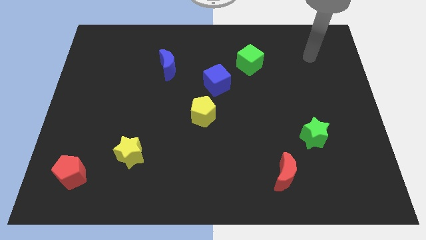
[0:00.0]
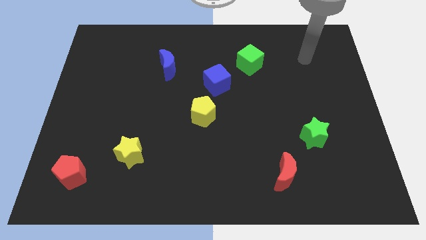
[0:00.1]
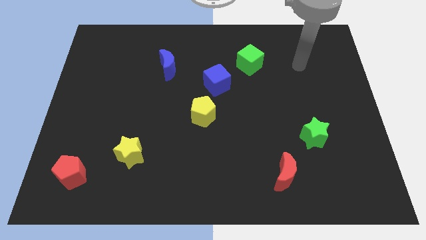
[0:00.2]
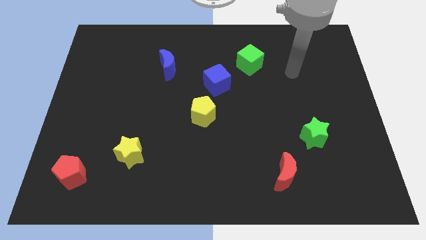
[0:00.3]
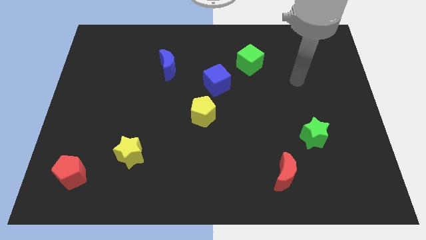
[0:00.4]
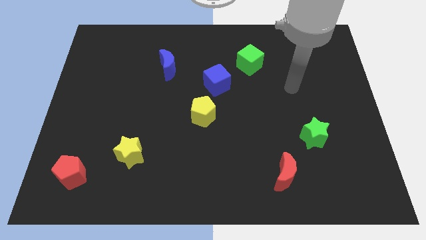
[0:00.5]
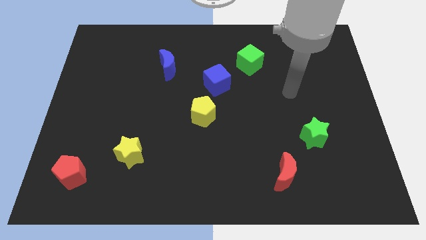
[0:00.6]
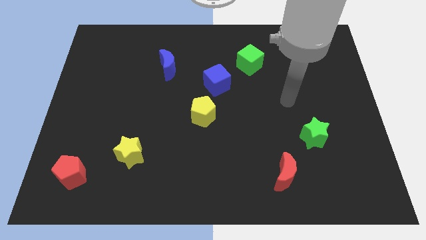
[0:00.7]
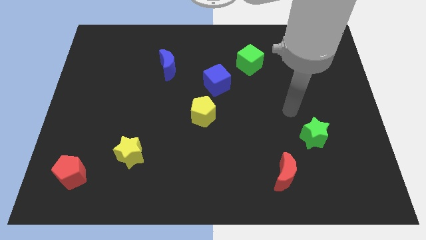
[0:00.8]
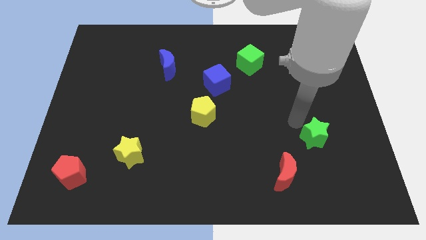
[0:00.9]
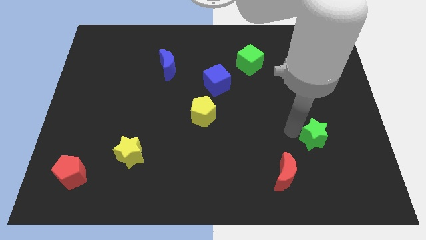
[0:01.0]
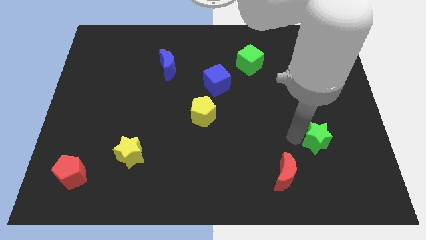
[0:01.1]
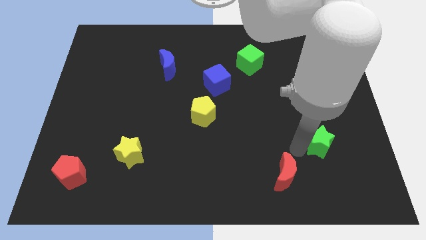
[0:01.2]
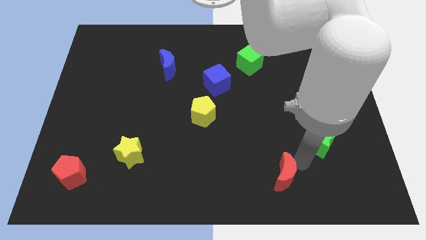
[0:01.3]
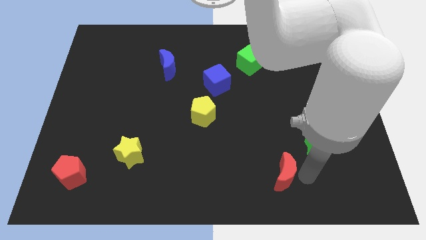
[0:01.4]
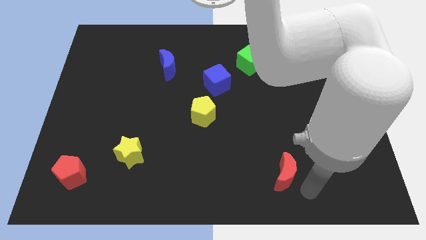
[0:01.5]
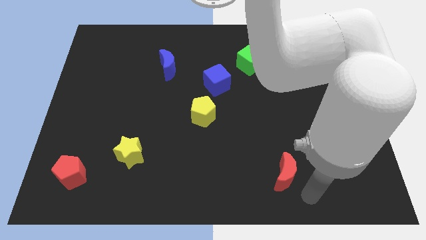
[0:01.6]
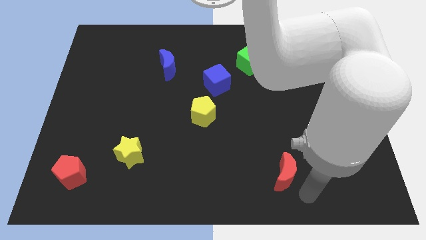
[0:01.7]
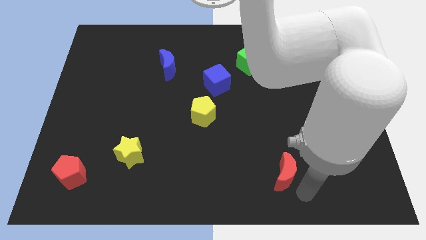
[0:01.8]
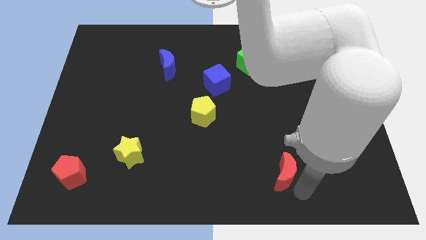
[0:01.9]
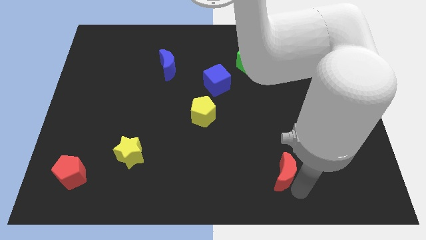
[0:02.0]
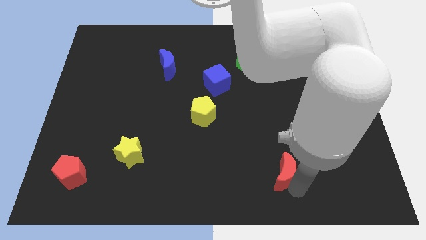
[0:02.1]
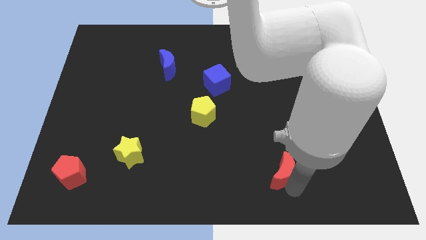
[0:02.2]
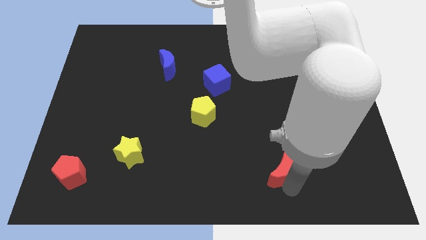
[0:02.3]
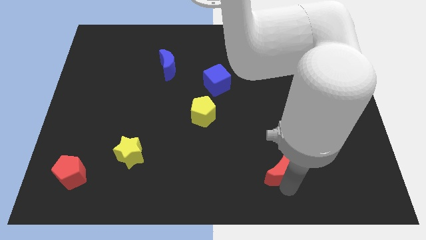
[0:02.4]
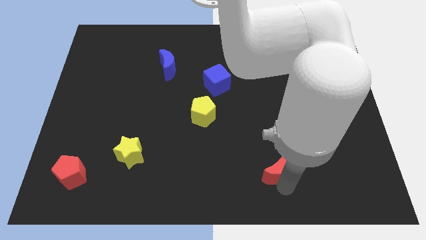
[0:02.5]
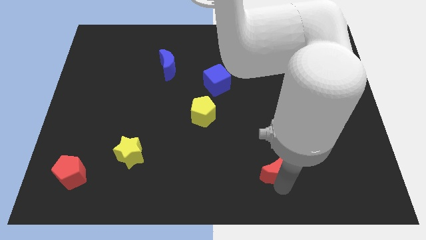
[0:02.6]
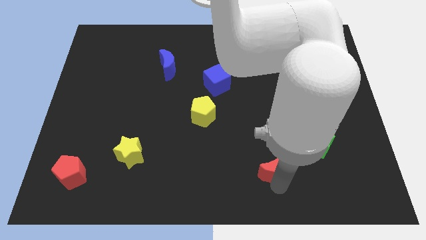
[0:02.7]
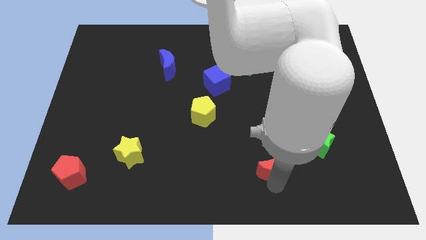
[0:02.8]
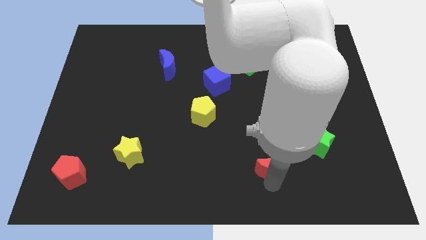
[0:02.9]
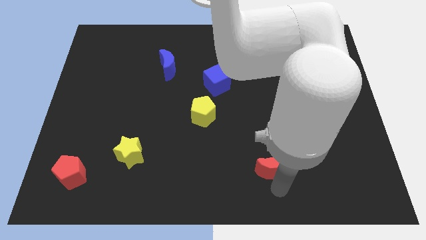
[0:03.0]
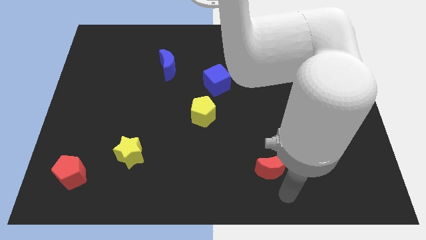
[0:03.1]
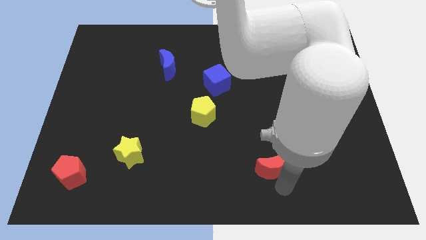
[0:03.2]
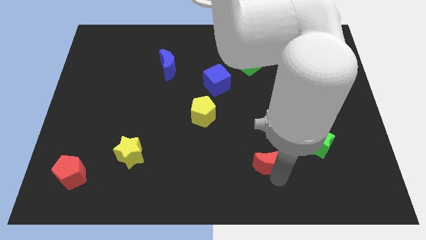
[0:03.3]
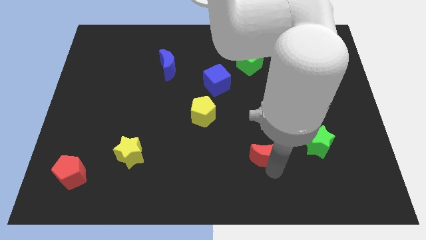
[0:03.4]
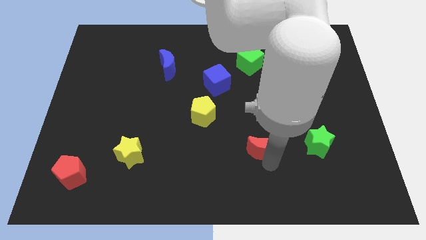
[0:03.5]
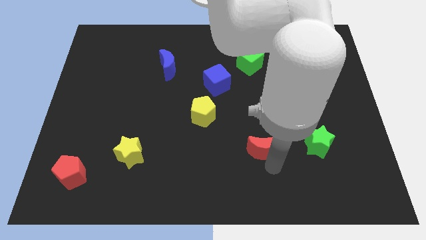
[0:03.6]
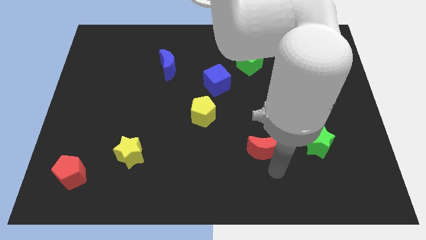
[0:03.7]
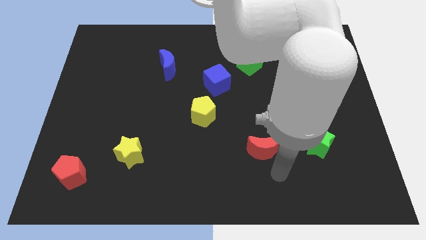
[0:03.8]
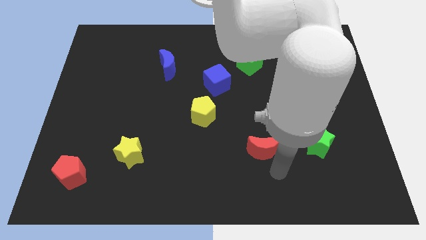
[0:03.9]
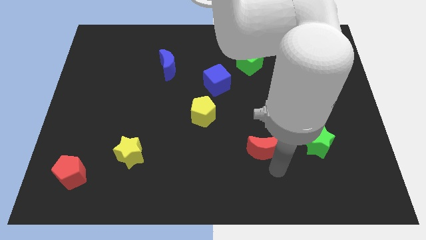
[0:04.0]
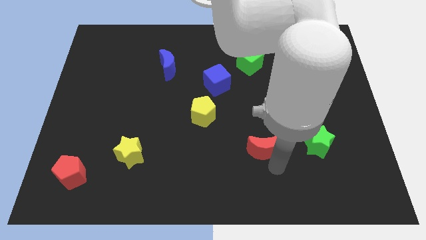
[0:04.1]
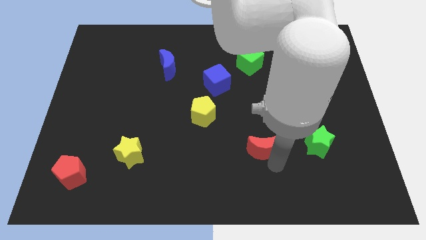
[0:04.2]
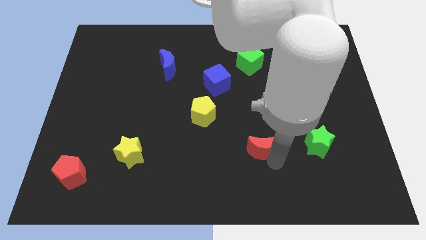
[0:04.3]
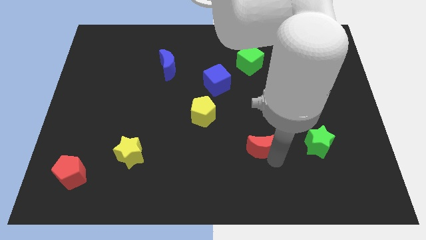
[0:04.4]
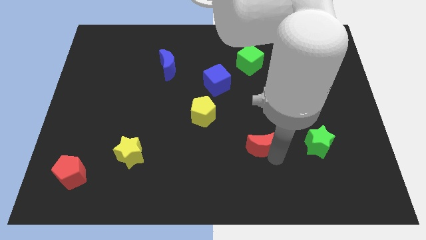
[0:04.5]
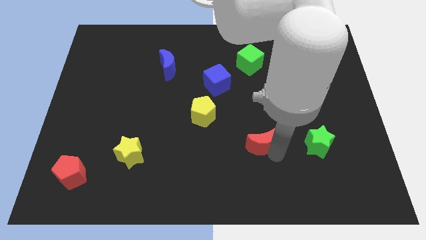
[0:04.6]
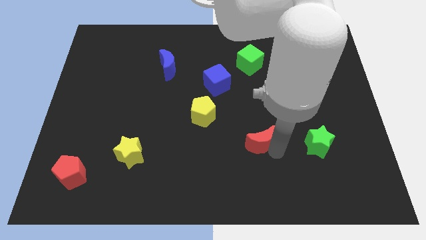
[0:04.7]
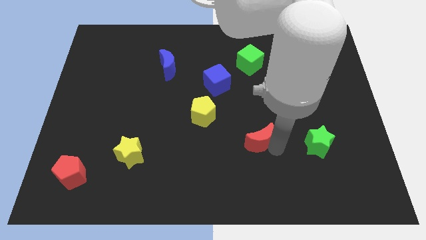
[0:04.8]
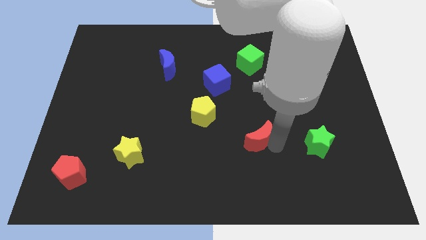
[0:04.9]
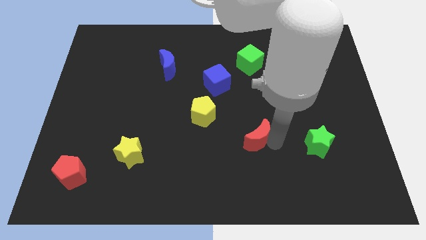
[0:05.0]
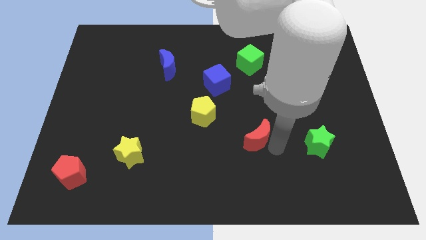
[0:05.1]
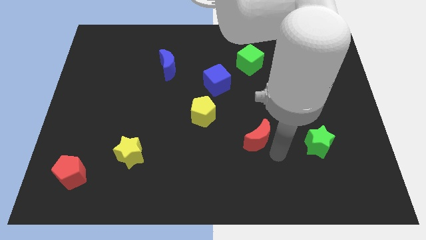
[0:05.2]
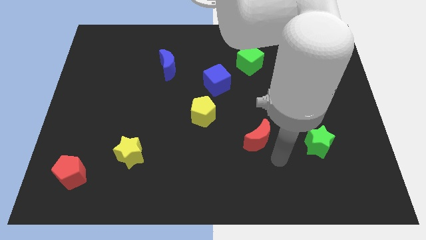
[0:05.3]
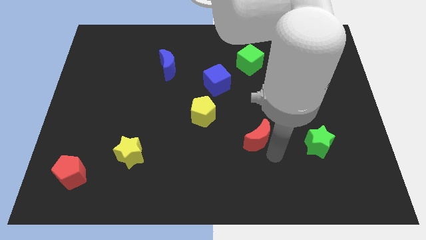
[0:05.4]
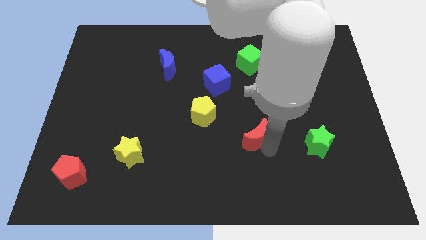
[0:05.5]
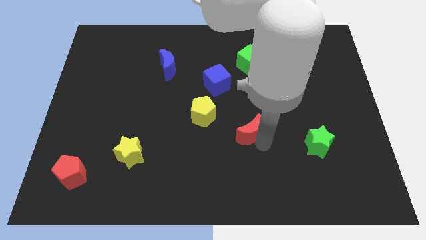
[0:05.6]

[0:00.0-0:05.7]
slide the red moon to the middle of the board

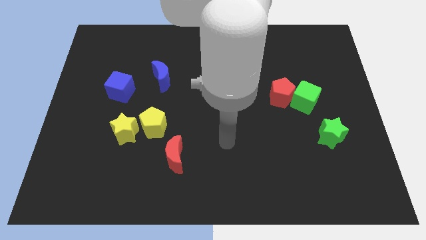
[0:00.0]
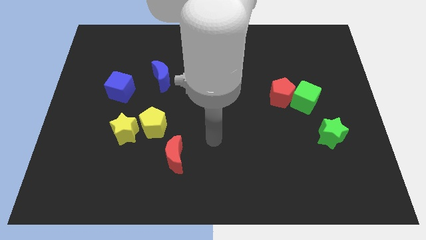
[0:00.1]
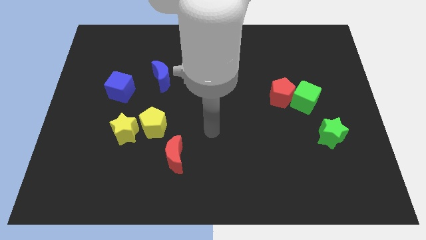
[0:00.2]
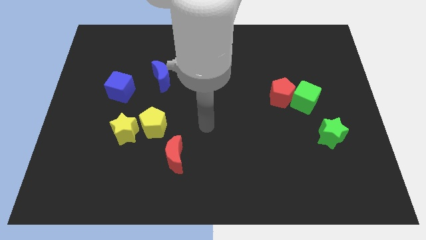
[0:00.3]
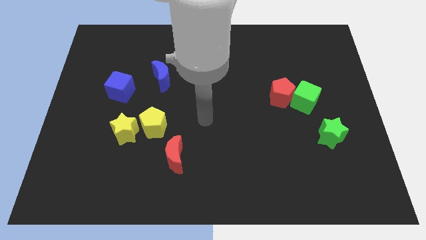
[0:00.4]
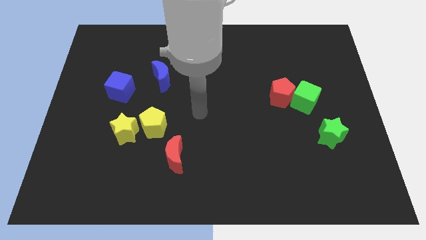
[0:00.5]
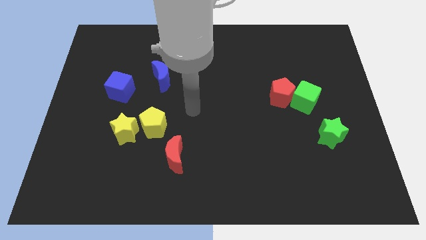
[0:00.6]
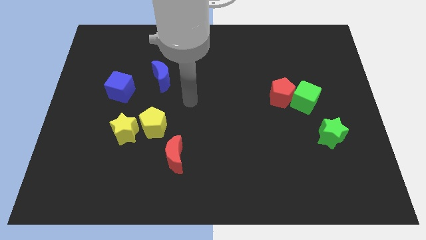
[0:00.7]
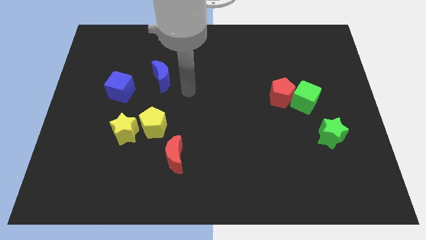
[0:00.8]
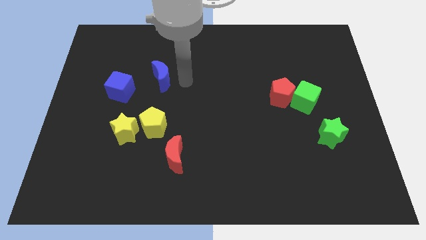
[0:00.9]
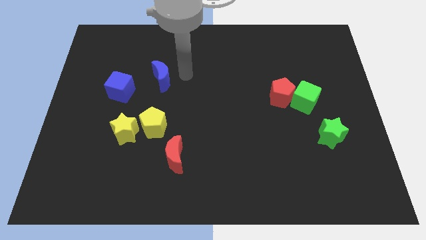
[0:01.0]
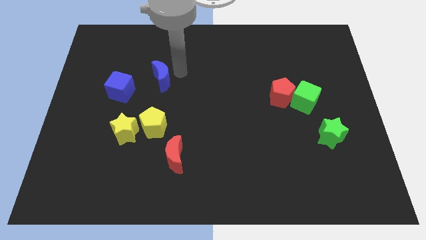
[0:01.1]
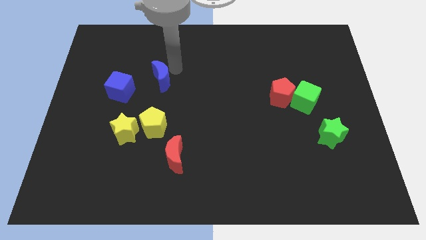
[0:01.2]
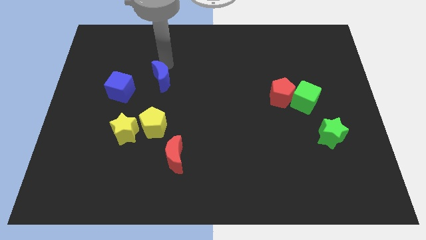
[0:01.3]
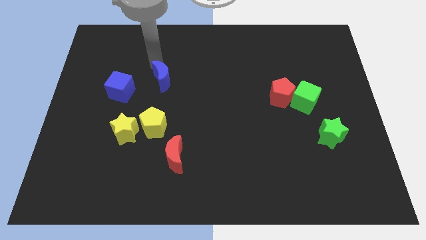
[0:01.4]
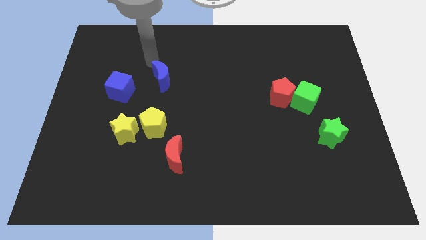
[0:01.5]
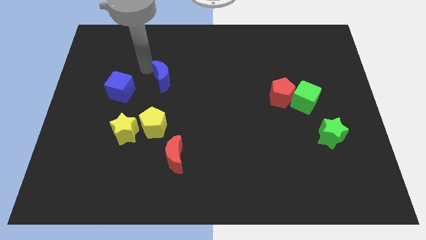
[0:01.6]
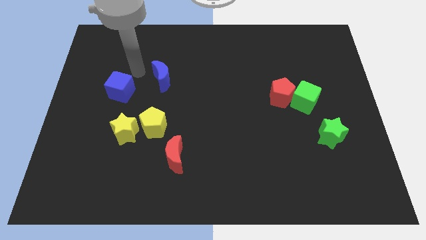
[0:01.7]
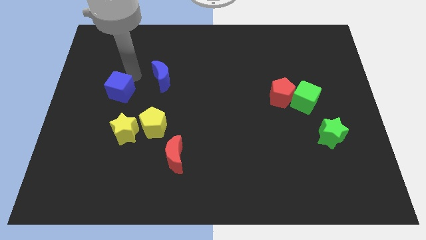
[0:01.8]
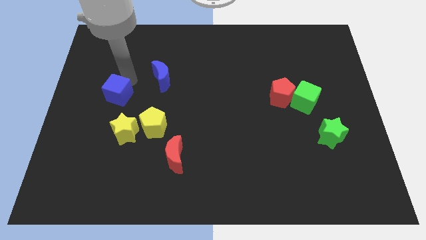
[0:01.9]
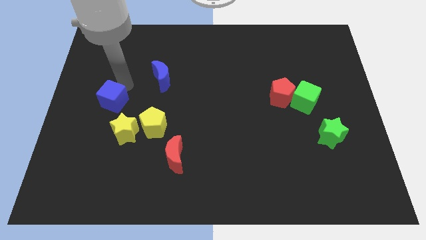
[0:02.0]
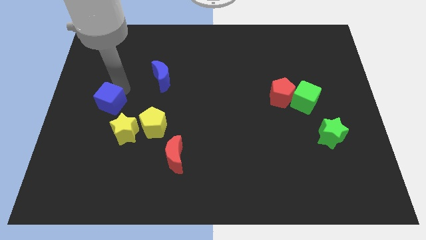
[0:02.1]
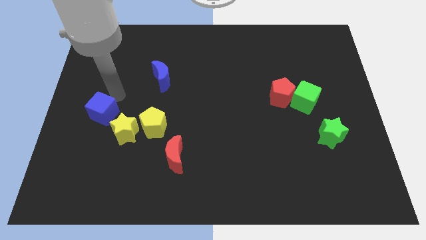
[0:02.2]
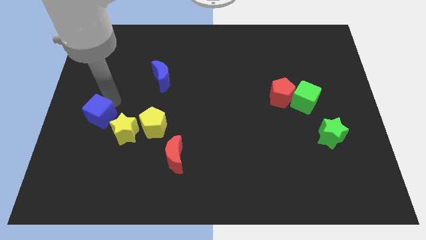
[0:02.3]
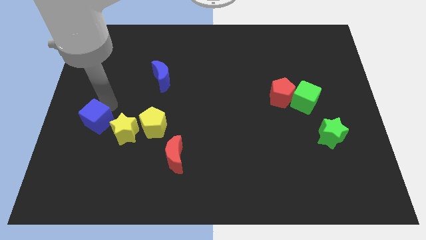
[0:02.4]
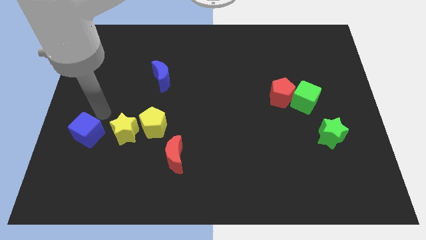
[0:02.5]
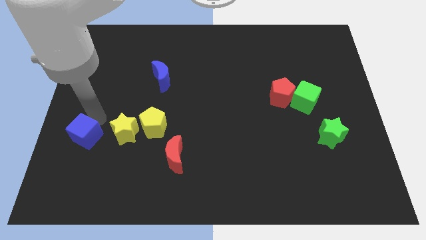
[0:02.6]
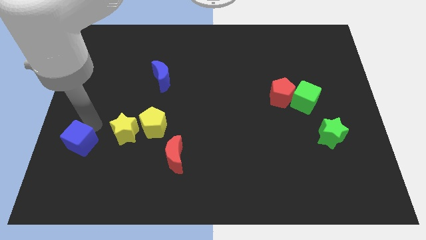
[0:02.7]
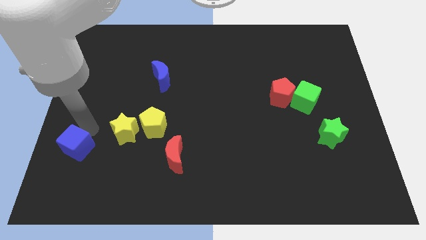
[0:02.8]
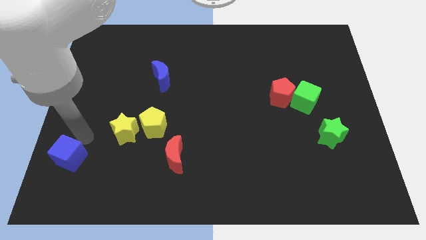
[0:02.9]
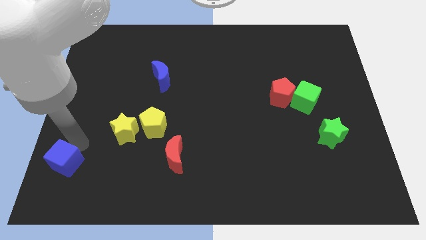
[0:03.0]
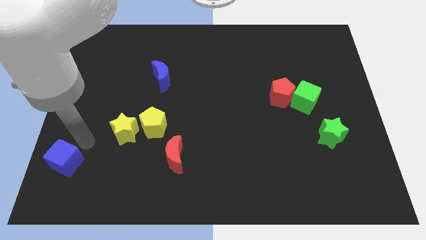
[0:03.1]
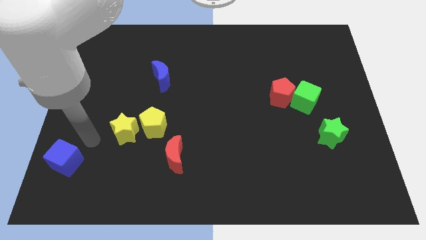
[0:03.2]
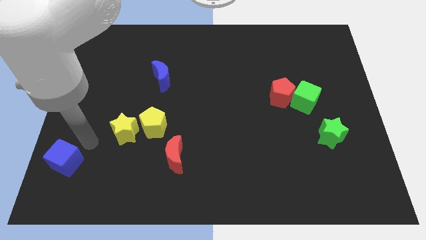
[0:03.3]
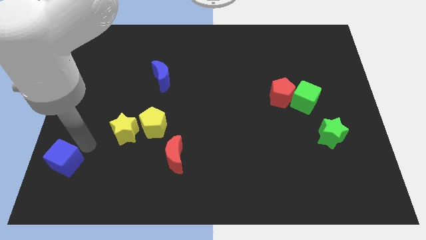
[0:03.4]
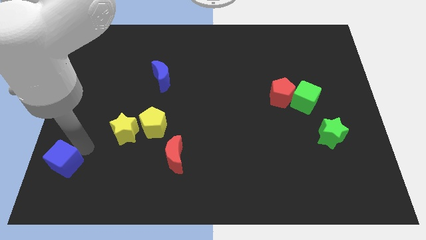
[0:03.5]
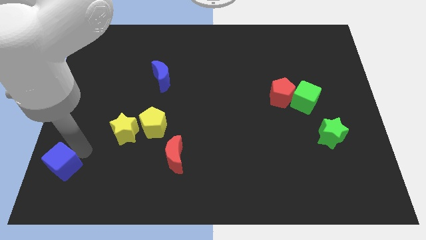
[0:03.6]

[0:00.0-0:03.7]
slide the blue cube to the bottom left
